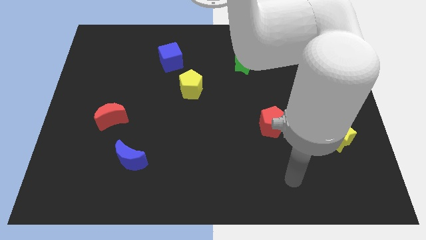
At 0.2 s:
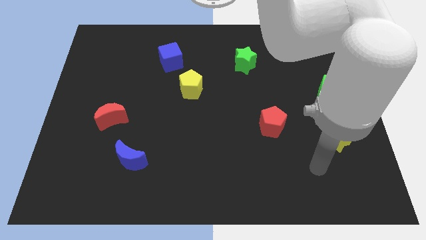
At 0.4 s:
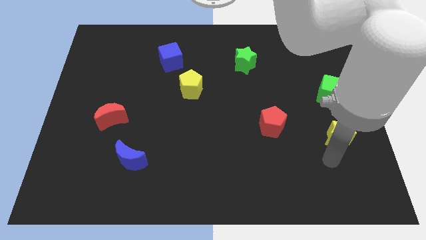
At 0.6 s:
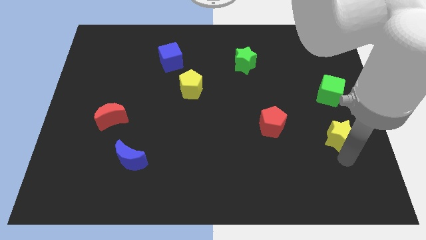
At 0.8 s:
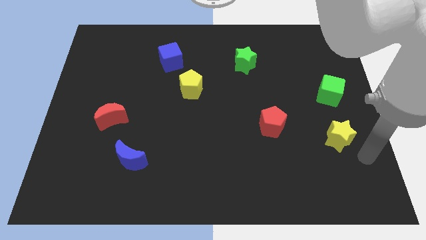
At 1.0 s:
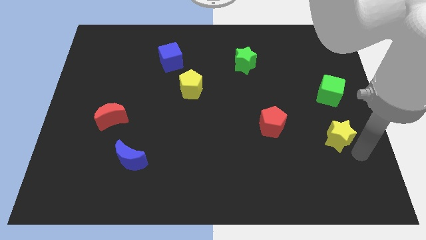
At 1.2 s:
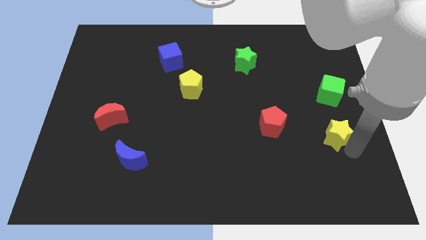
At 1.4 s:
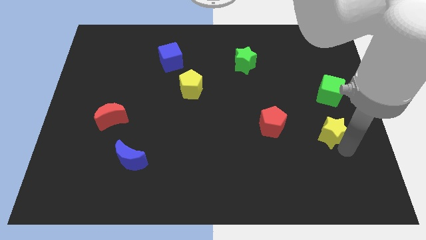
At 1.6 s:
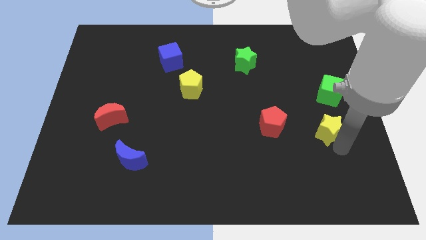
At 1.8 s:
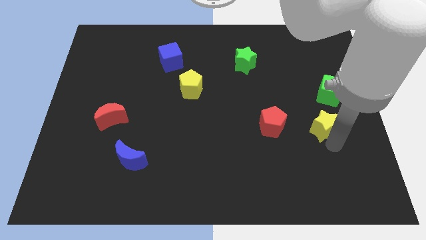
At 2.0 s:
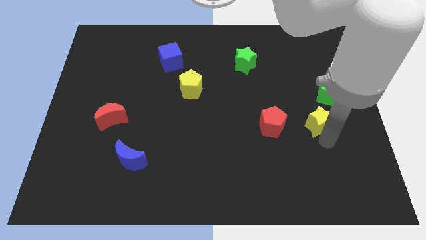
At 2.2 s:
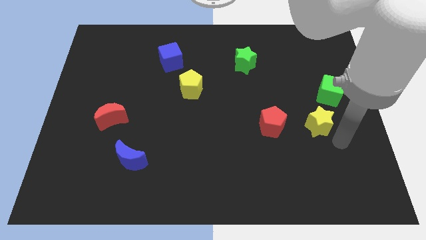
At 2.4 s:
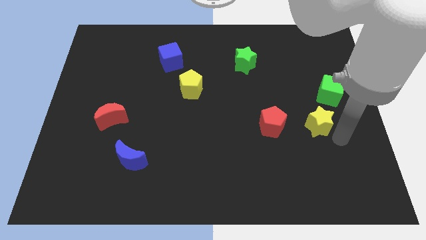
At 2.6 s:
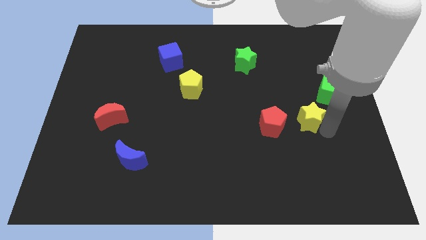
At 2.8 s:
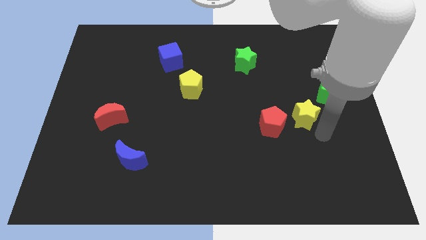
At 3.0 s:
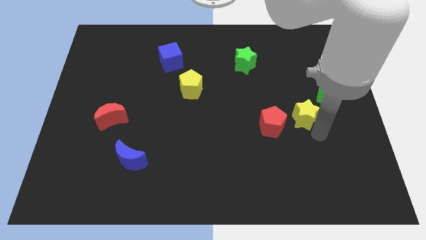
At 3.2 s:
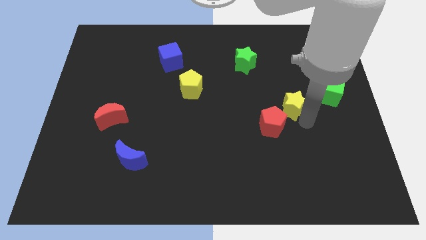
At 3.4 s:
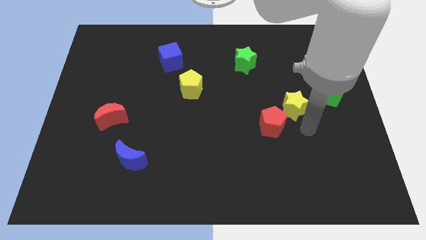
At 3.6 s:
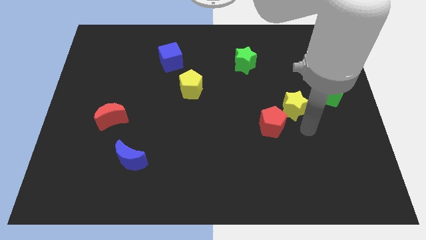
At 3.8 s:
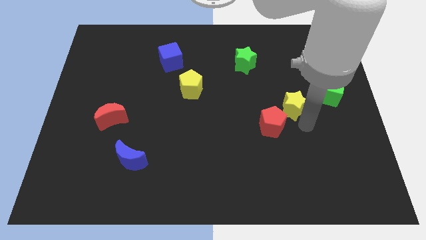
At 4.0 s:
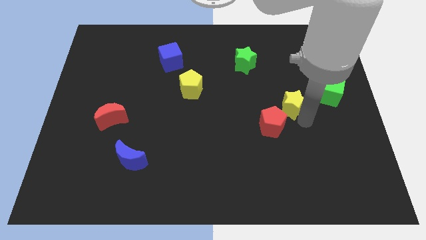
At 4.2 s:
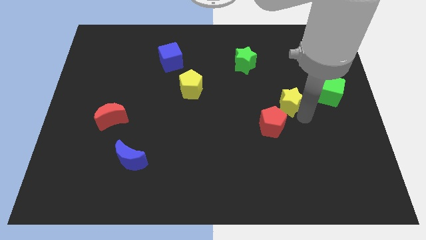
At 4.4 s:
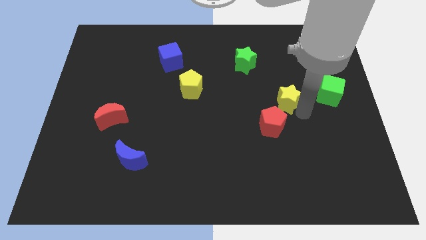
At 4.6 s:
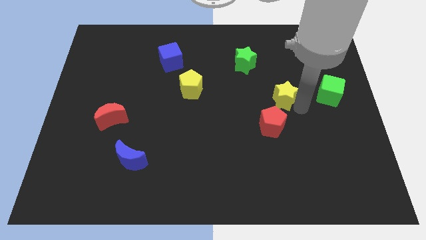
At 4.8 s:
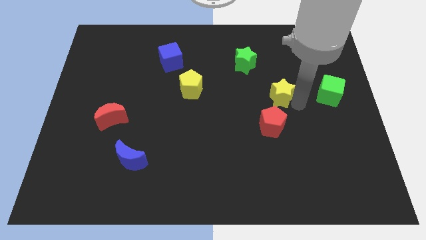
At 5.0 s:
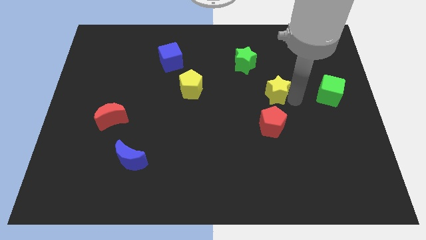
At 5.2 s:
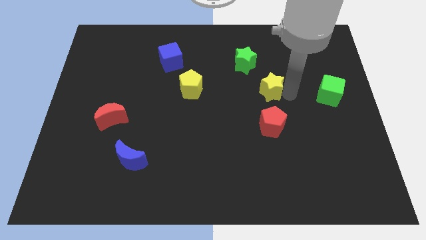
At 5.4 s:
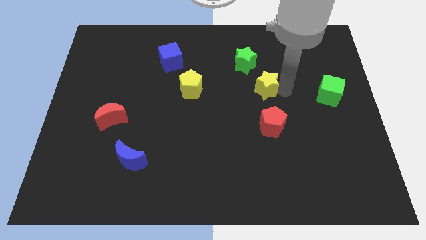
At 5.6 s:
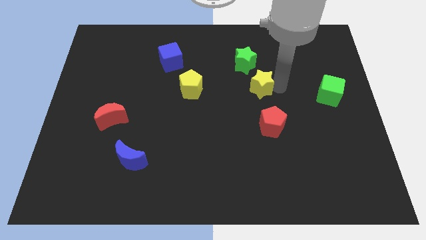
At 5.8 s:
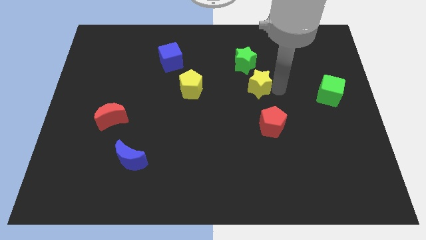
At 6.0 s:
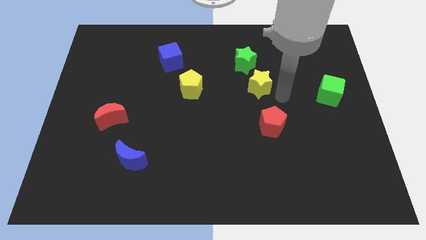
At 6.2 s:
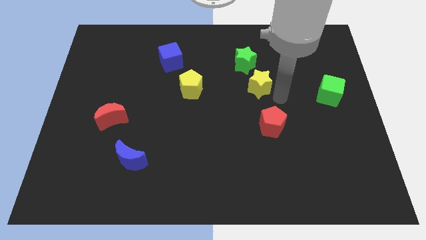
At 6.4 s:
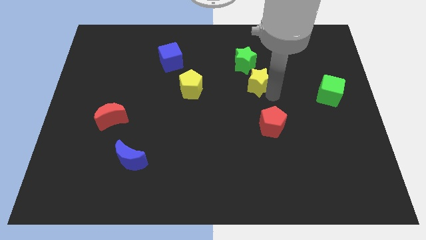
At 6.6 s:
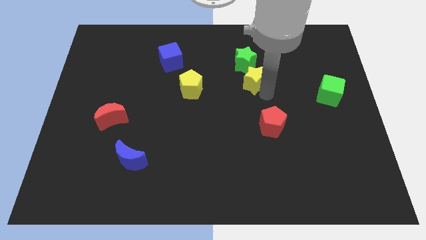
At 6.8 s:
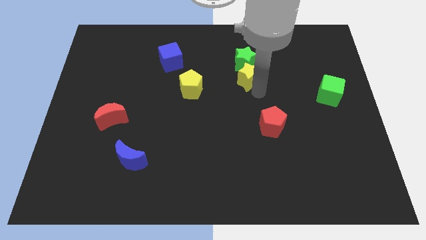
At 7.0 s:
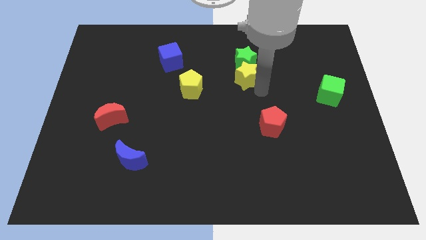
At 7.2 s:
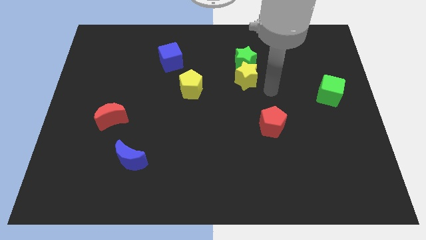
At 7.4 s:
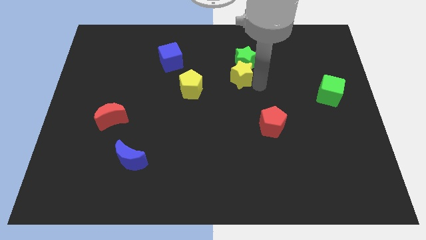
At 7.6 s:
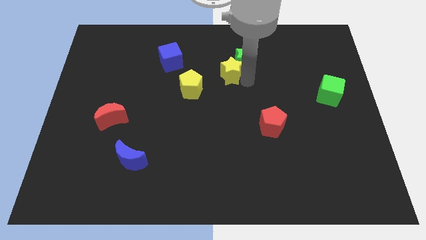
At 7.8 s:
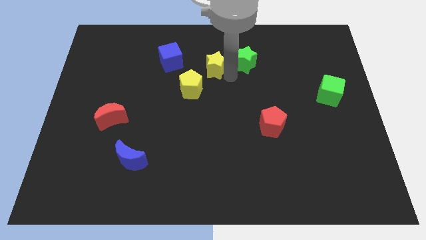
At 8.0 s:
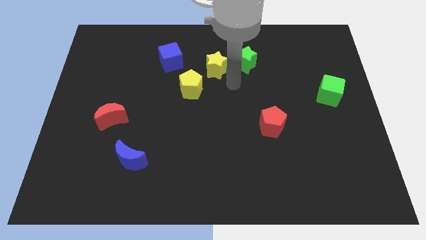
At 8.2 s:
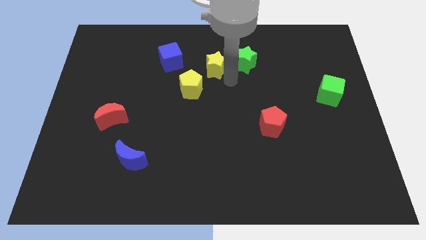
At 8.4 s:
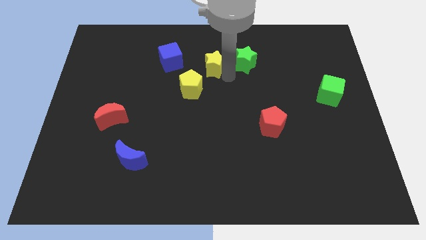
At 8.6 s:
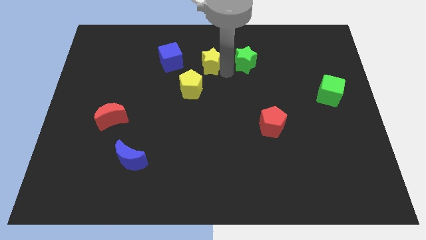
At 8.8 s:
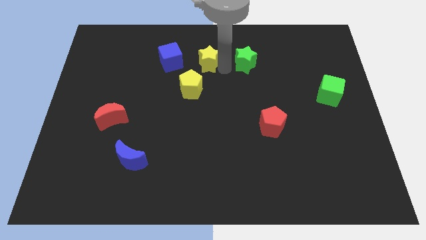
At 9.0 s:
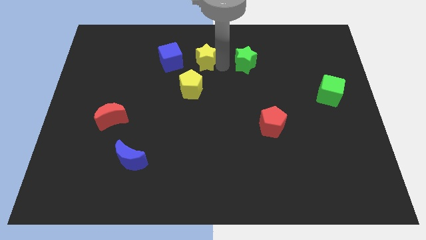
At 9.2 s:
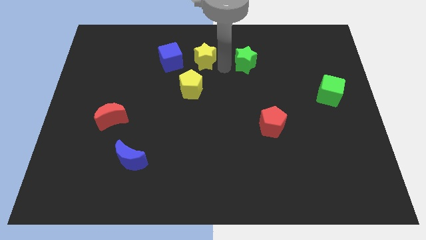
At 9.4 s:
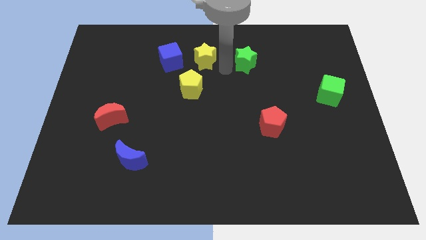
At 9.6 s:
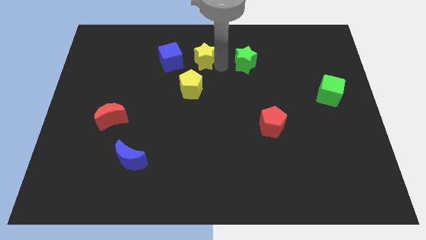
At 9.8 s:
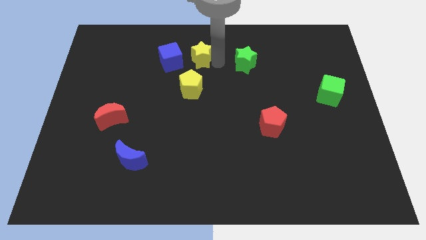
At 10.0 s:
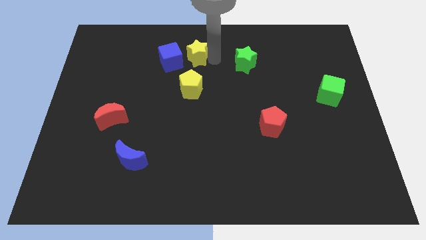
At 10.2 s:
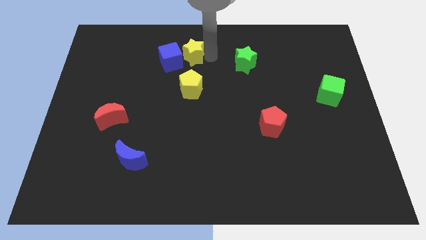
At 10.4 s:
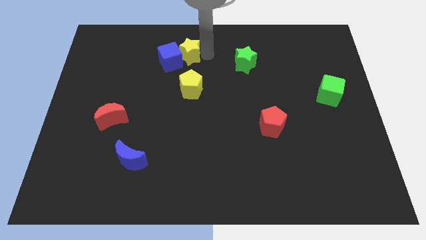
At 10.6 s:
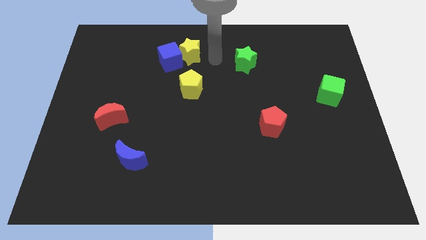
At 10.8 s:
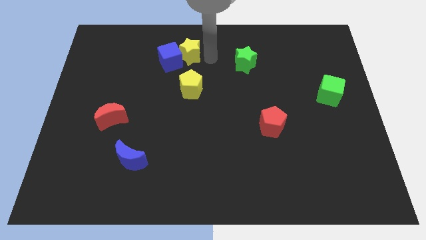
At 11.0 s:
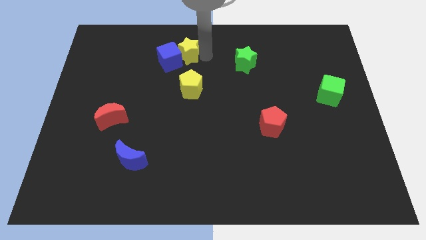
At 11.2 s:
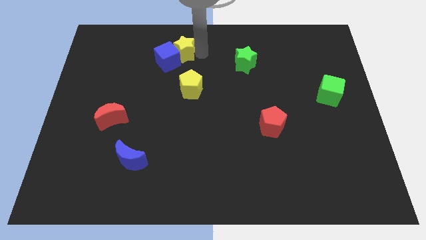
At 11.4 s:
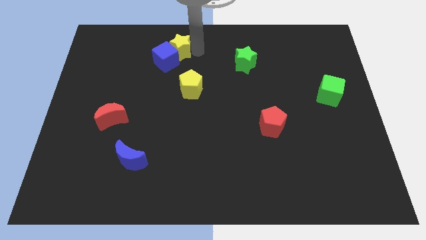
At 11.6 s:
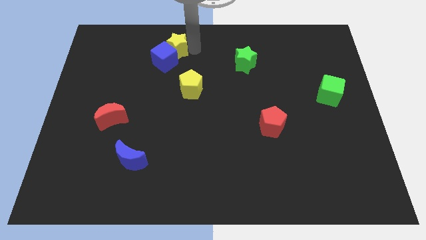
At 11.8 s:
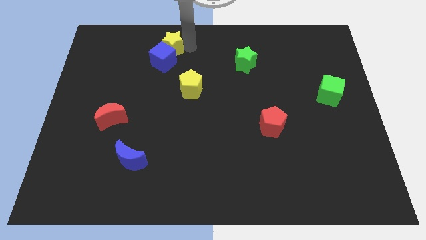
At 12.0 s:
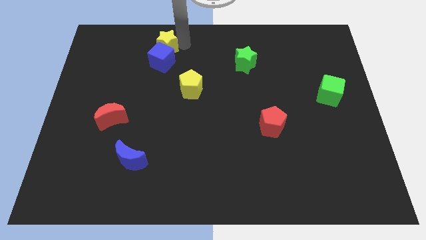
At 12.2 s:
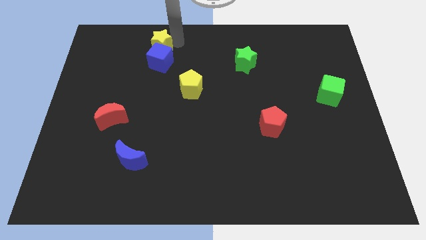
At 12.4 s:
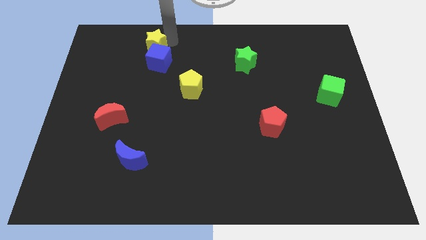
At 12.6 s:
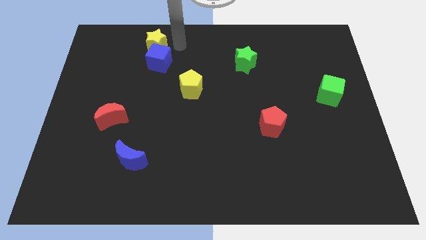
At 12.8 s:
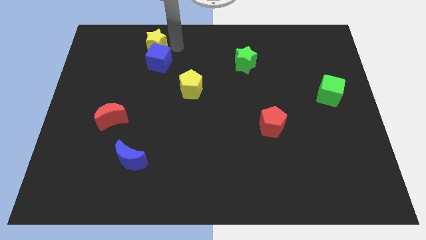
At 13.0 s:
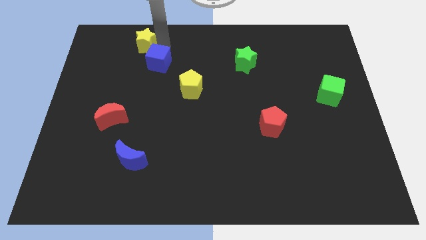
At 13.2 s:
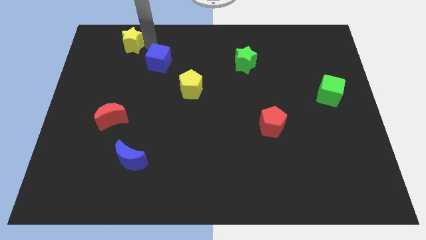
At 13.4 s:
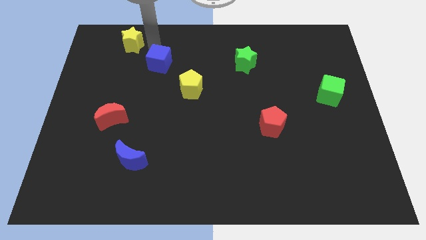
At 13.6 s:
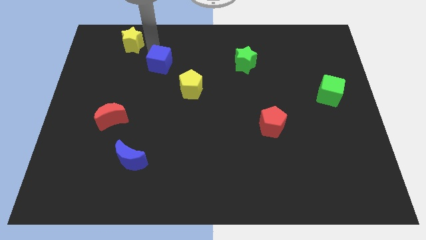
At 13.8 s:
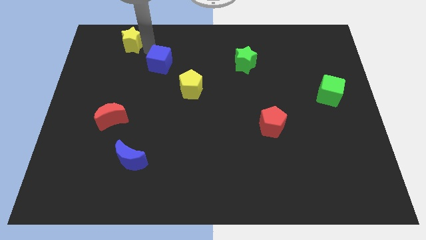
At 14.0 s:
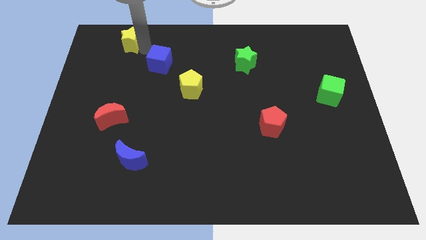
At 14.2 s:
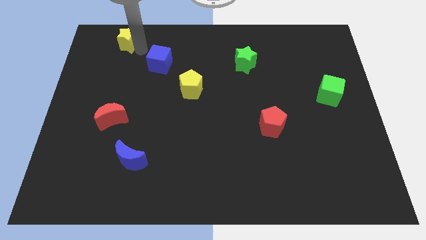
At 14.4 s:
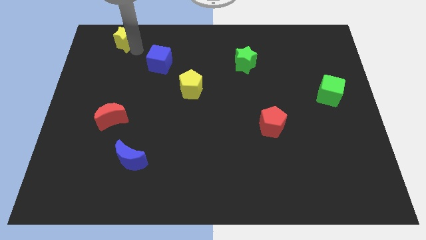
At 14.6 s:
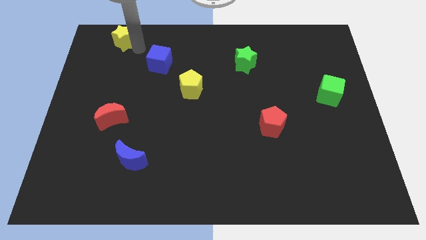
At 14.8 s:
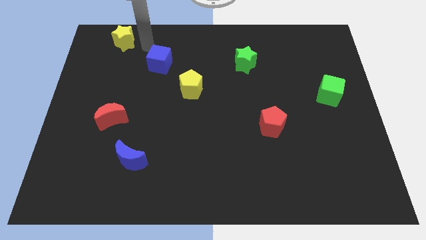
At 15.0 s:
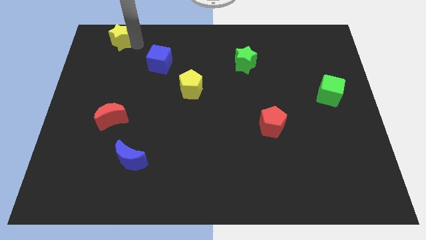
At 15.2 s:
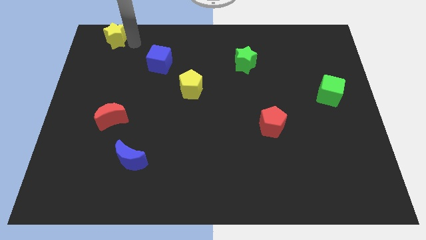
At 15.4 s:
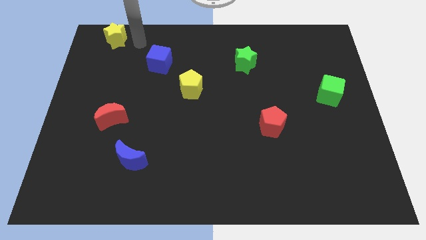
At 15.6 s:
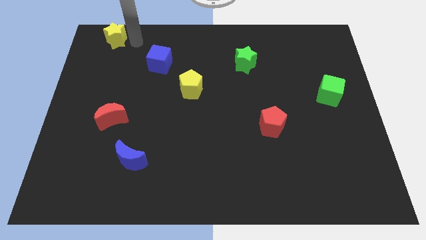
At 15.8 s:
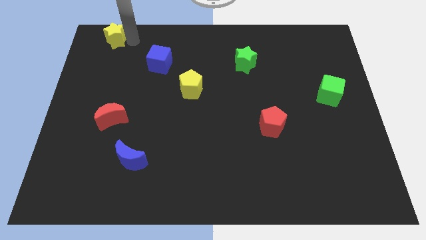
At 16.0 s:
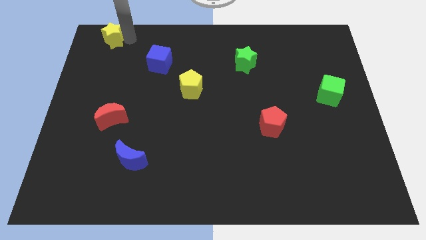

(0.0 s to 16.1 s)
push the yellow star to the upper left corner
